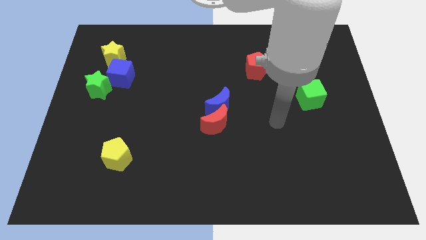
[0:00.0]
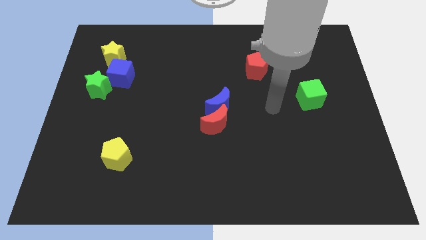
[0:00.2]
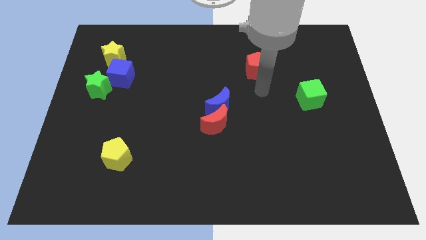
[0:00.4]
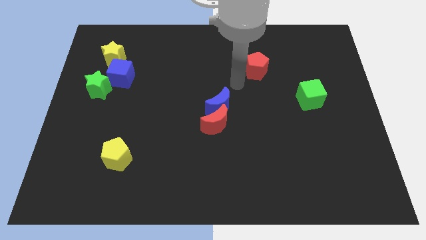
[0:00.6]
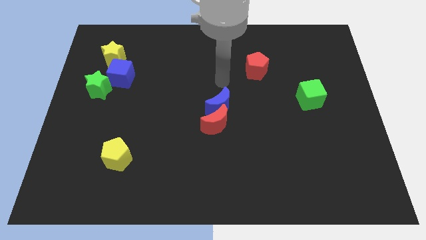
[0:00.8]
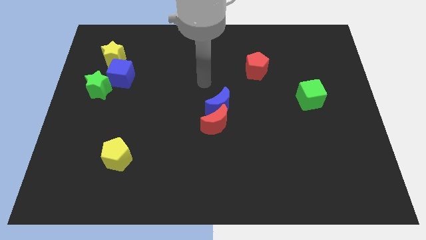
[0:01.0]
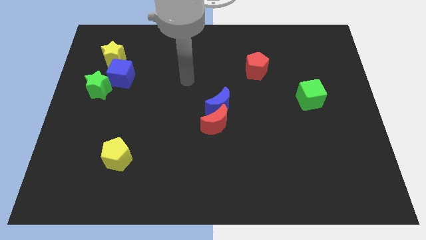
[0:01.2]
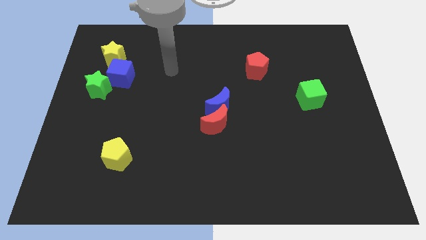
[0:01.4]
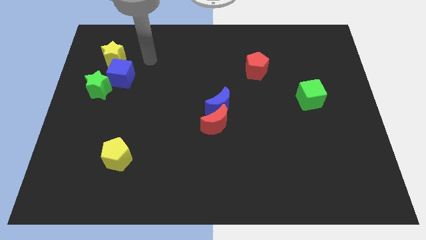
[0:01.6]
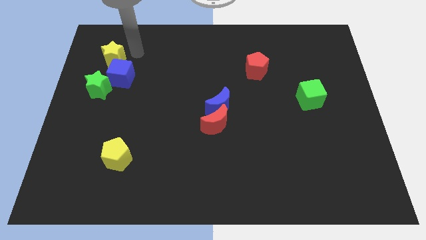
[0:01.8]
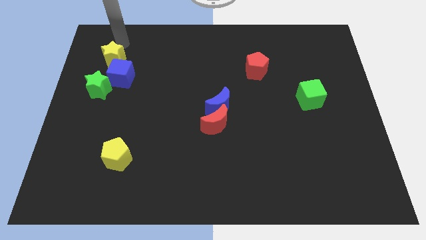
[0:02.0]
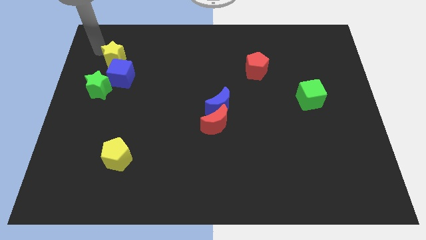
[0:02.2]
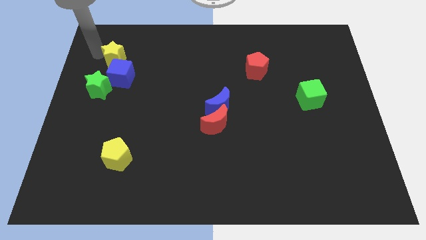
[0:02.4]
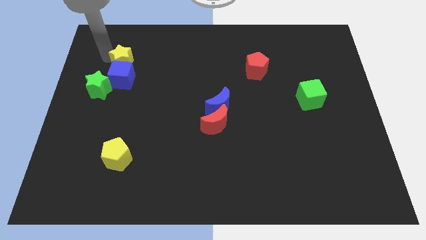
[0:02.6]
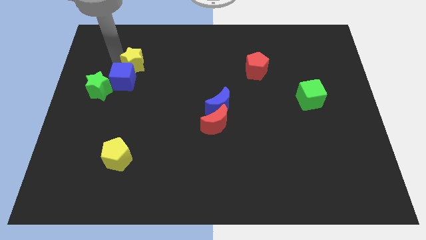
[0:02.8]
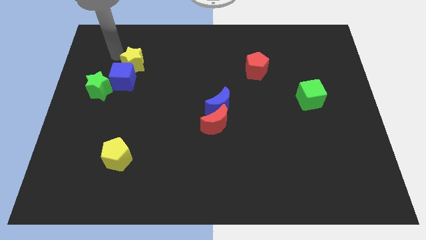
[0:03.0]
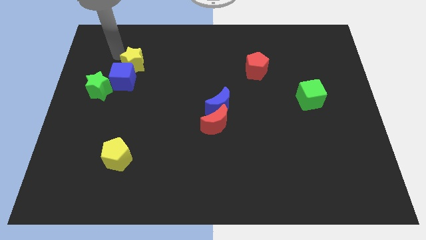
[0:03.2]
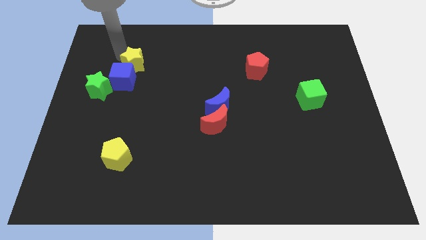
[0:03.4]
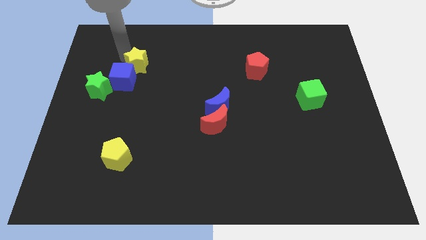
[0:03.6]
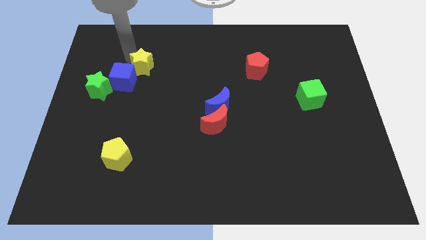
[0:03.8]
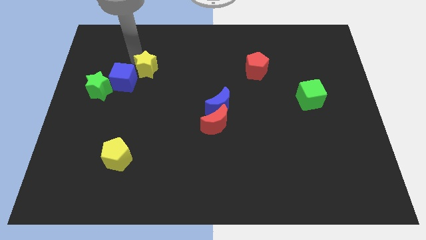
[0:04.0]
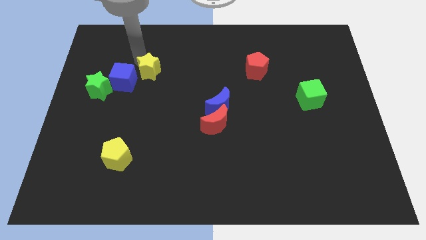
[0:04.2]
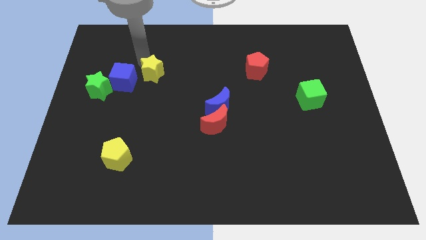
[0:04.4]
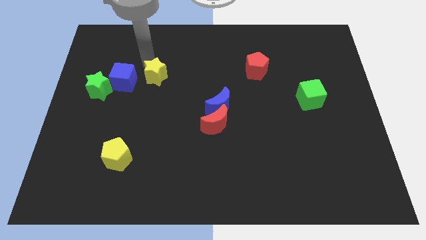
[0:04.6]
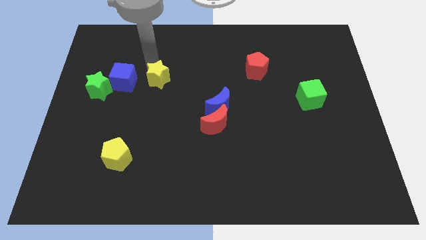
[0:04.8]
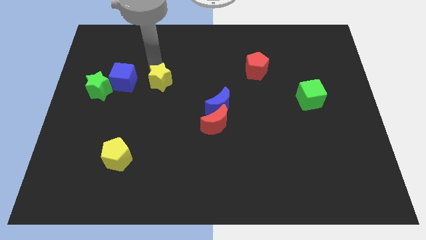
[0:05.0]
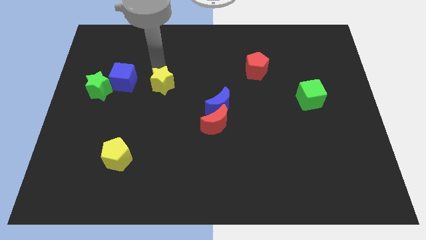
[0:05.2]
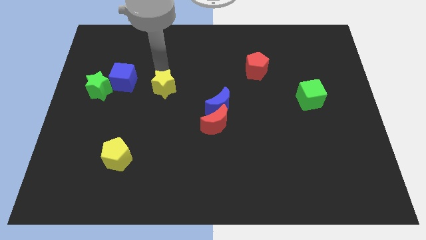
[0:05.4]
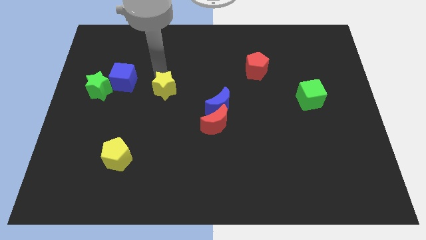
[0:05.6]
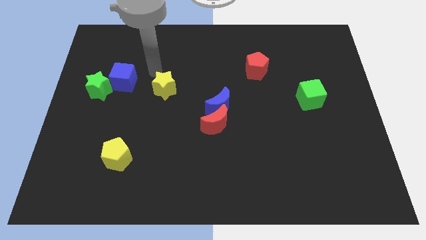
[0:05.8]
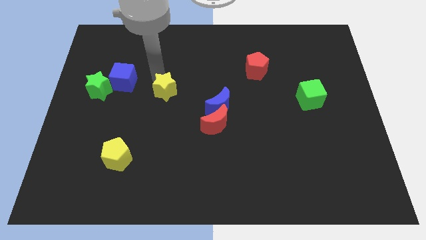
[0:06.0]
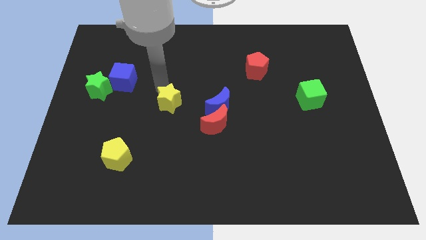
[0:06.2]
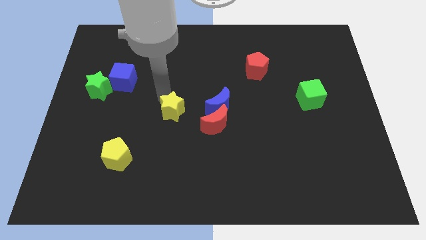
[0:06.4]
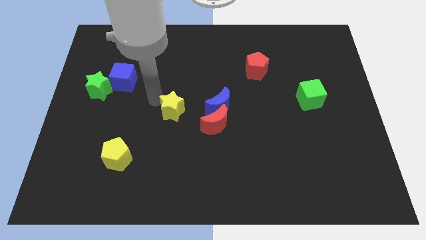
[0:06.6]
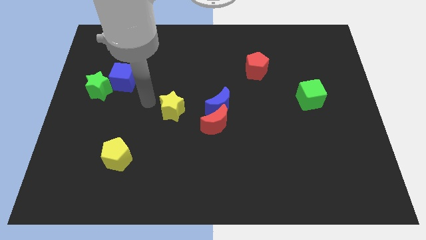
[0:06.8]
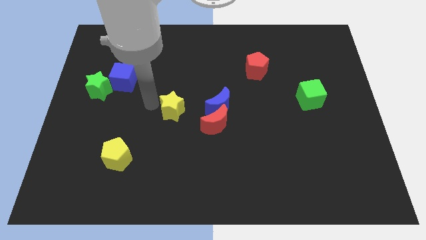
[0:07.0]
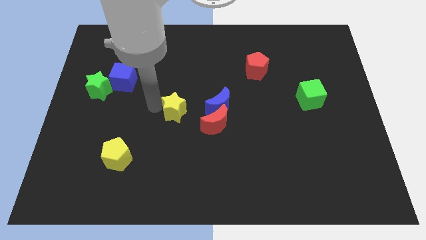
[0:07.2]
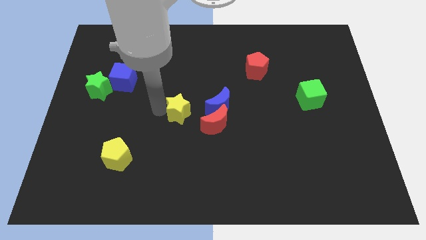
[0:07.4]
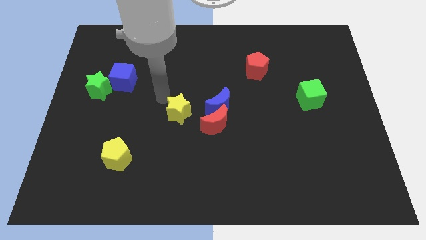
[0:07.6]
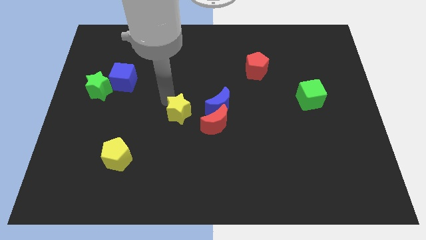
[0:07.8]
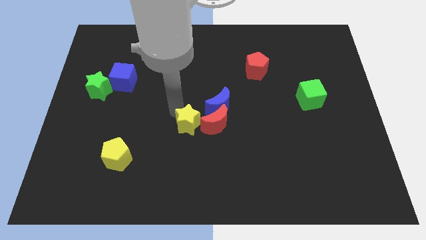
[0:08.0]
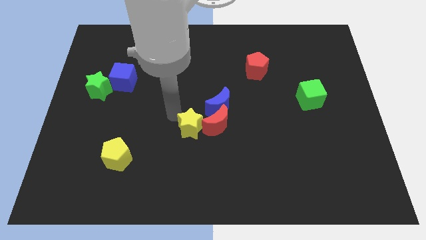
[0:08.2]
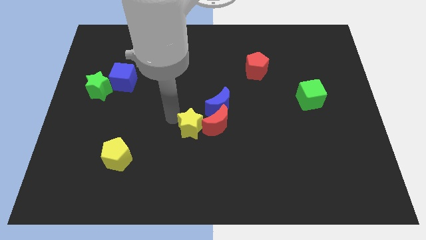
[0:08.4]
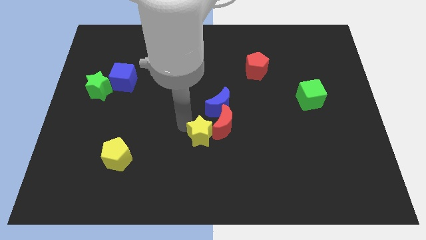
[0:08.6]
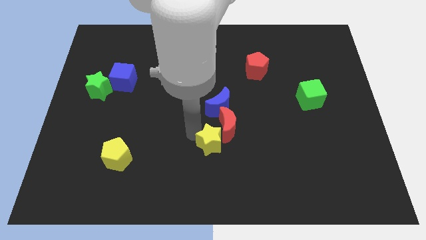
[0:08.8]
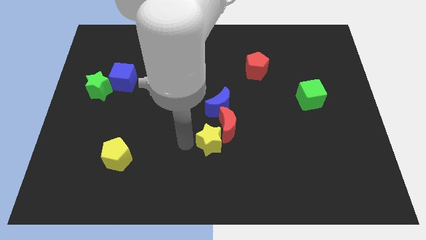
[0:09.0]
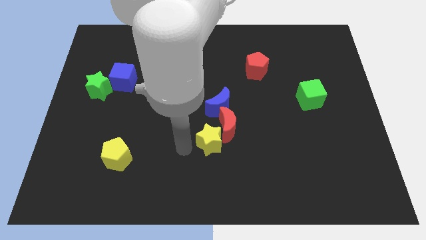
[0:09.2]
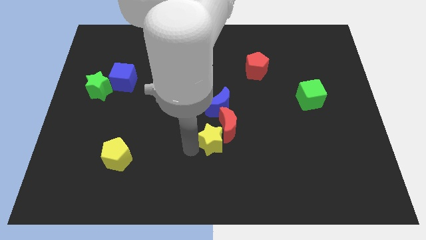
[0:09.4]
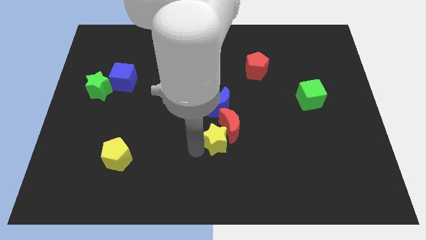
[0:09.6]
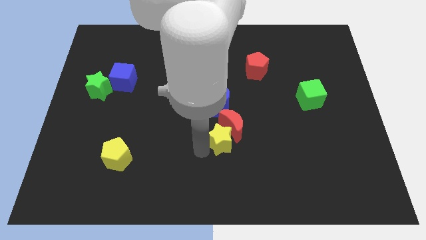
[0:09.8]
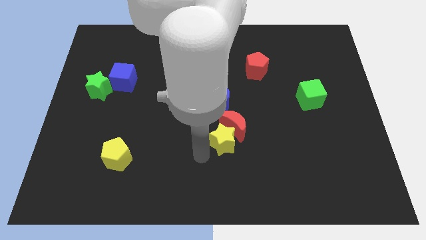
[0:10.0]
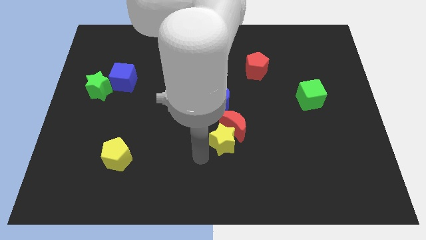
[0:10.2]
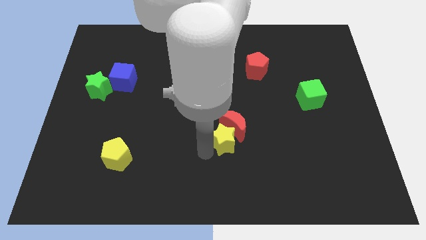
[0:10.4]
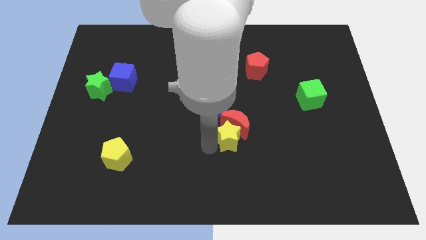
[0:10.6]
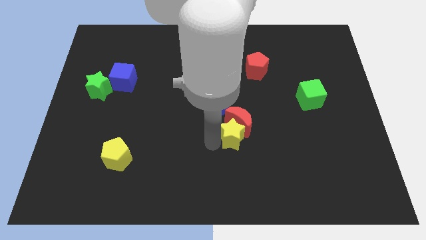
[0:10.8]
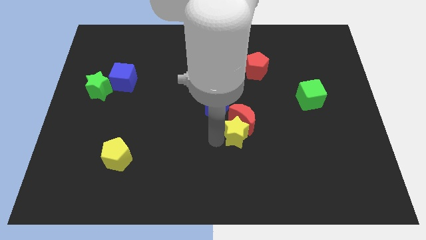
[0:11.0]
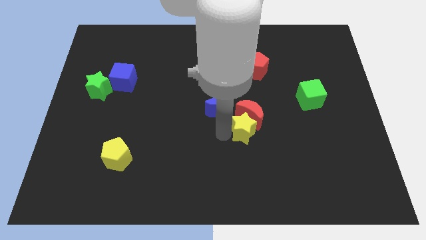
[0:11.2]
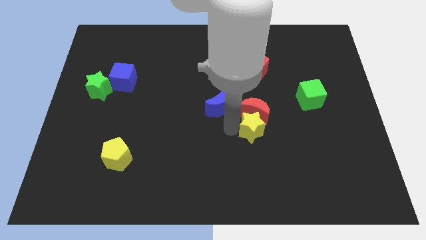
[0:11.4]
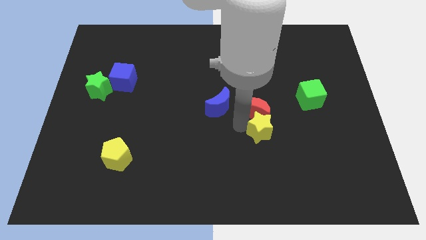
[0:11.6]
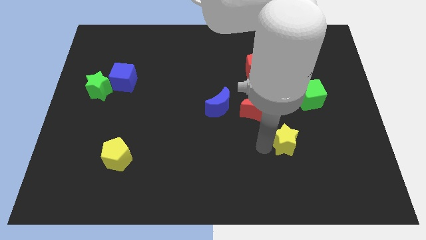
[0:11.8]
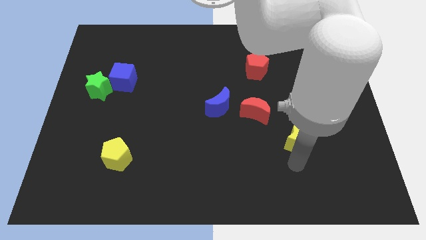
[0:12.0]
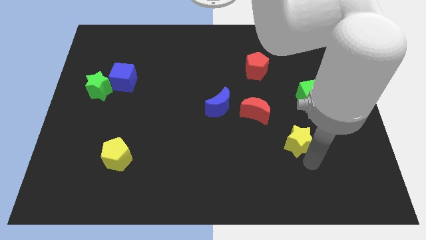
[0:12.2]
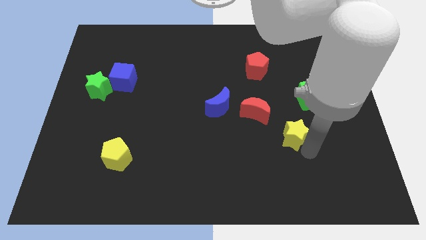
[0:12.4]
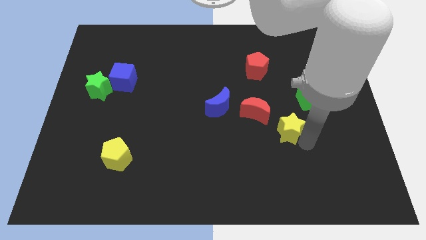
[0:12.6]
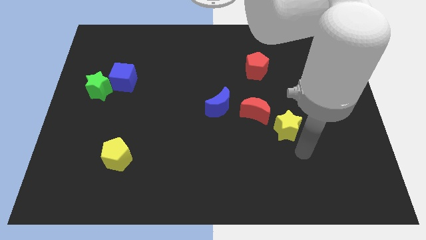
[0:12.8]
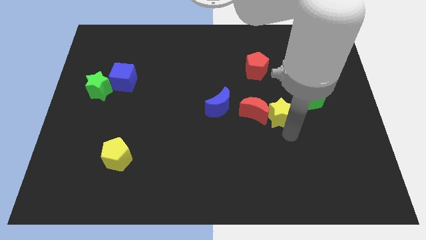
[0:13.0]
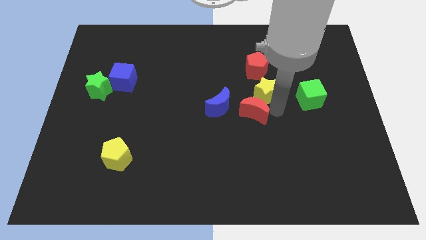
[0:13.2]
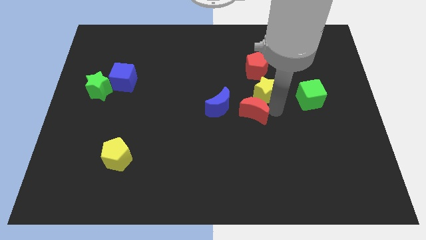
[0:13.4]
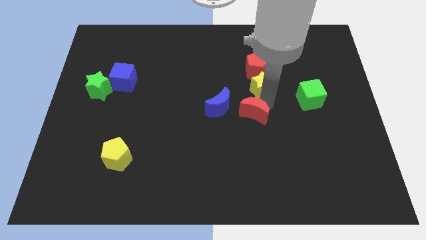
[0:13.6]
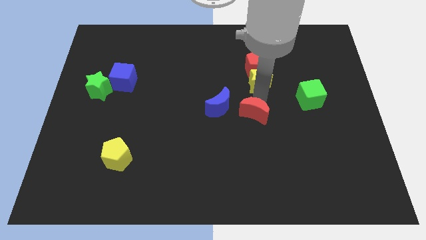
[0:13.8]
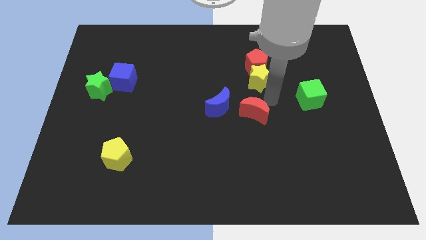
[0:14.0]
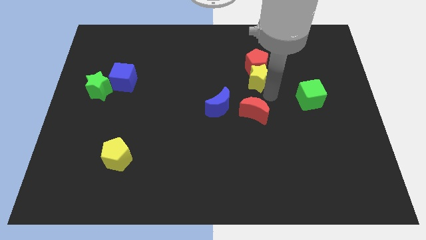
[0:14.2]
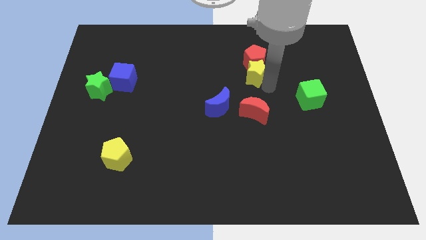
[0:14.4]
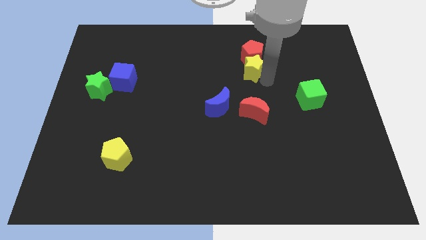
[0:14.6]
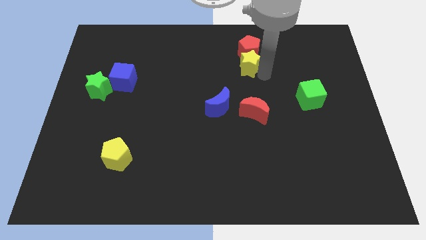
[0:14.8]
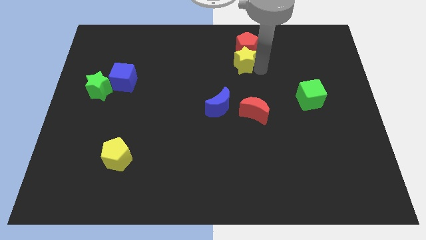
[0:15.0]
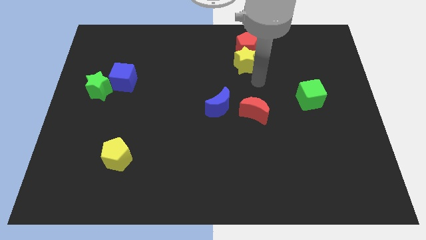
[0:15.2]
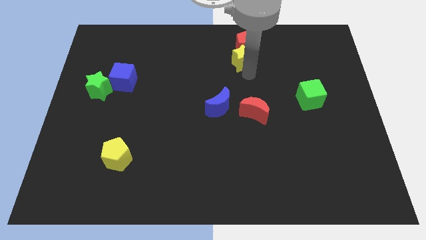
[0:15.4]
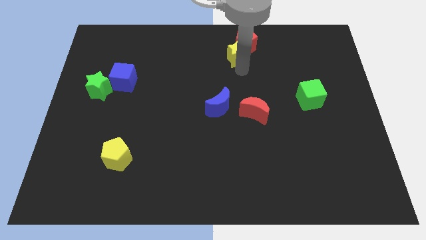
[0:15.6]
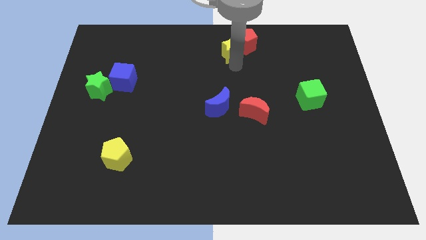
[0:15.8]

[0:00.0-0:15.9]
push the yellow star to the towards your base

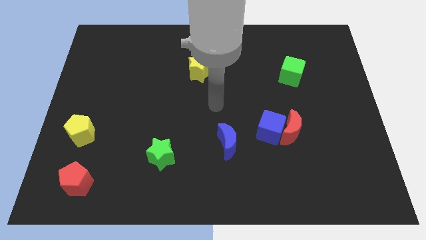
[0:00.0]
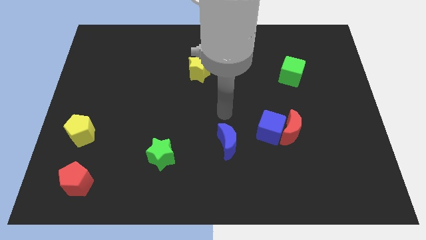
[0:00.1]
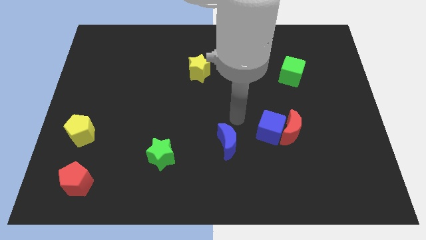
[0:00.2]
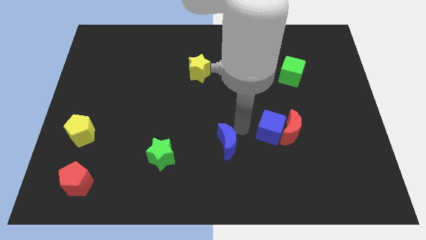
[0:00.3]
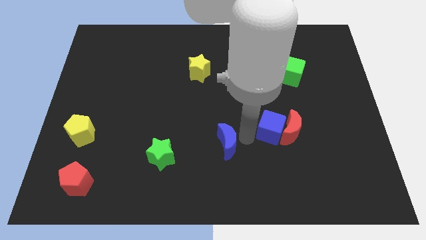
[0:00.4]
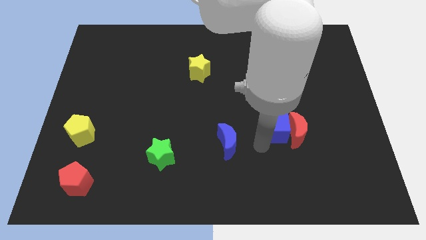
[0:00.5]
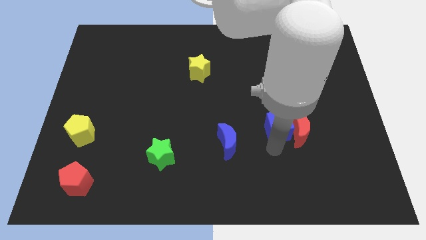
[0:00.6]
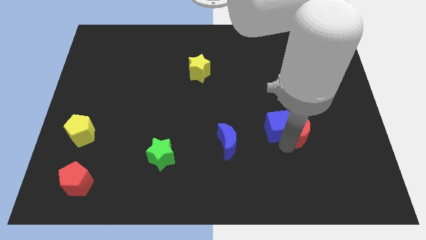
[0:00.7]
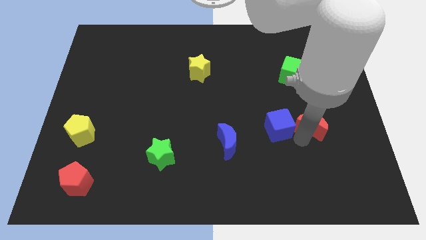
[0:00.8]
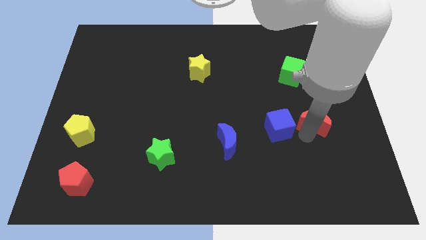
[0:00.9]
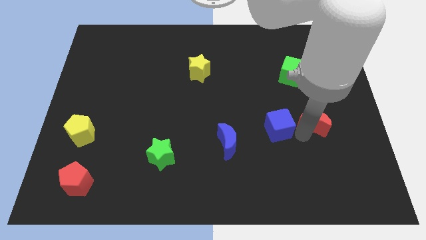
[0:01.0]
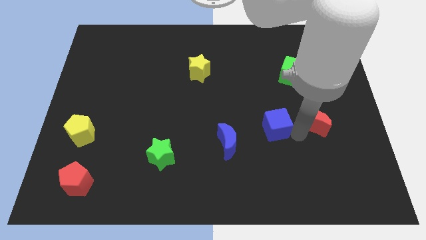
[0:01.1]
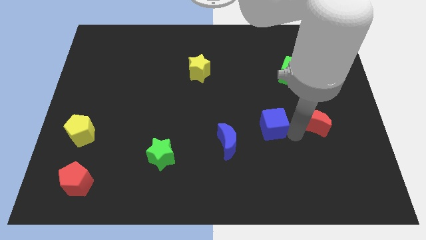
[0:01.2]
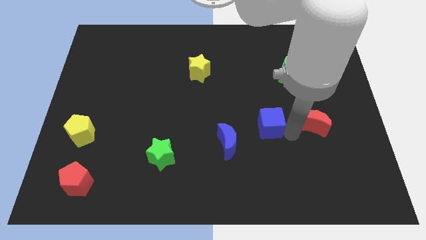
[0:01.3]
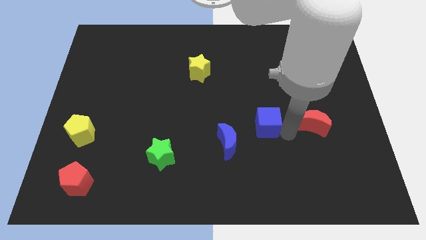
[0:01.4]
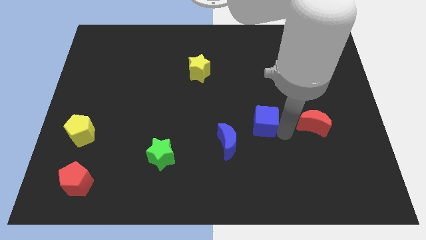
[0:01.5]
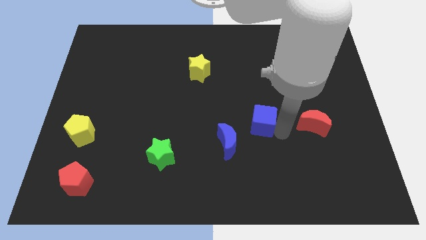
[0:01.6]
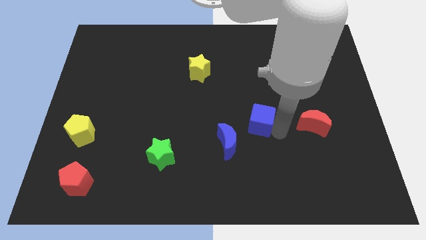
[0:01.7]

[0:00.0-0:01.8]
slide the blue cube to the center of the board
